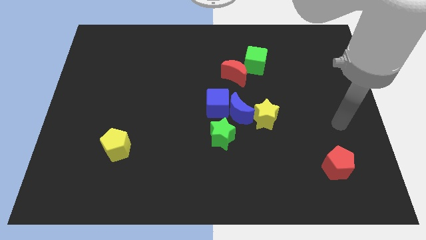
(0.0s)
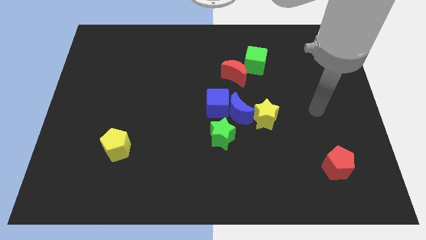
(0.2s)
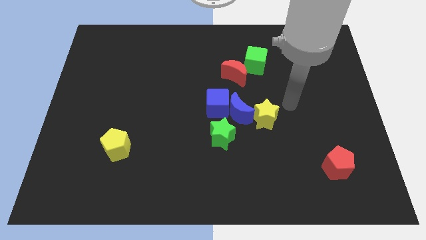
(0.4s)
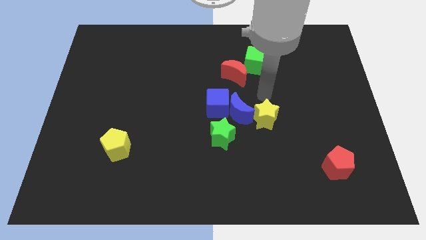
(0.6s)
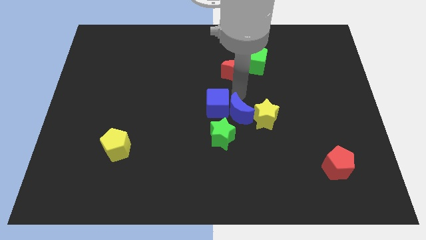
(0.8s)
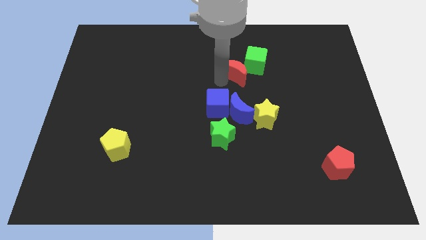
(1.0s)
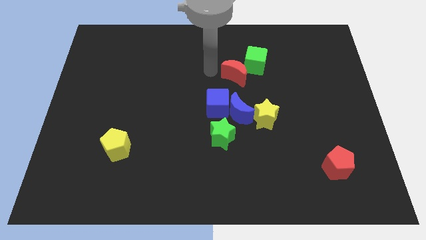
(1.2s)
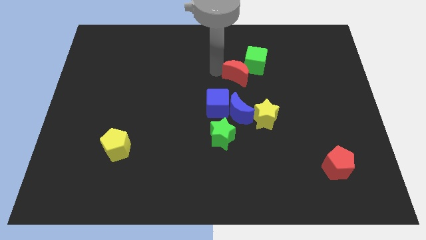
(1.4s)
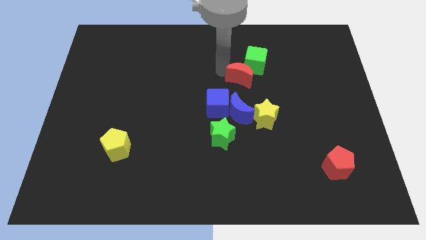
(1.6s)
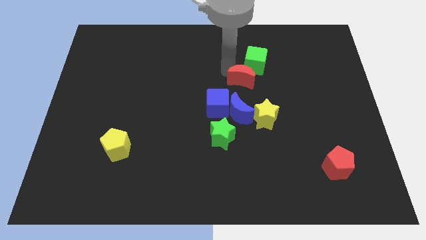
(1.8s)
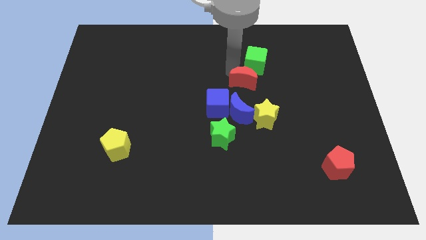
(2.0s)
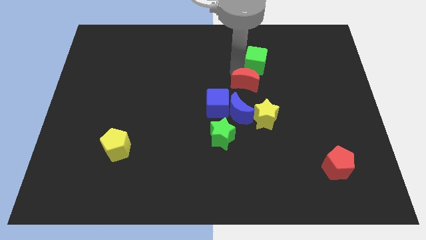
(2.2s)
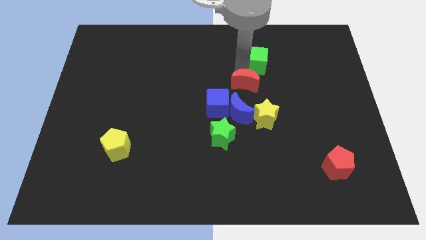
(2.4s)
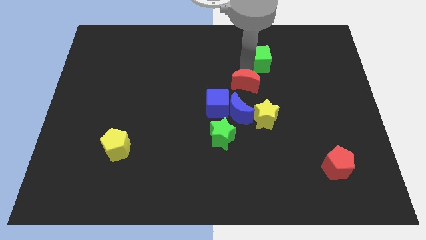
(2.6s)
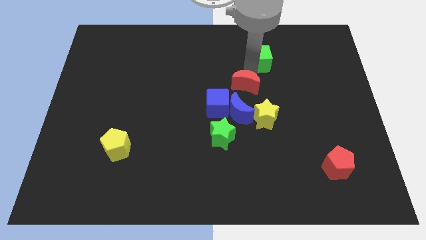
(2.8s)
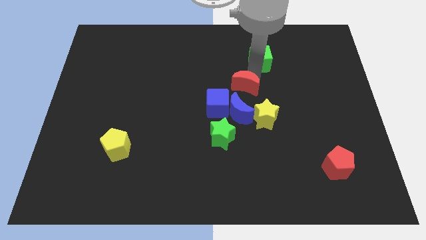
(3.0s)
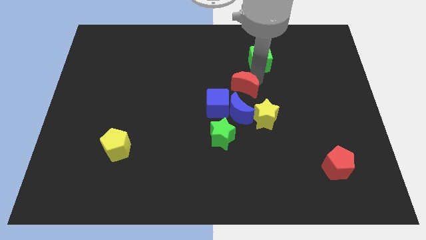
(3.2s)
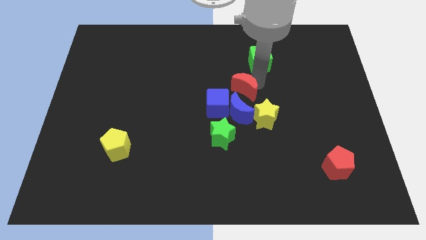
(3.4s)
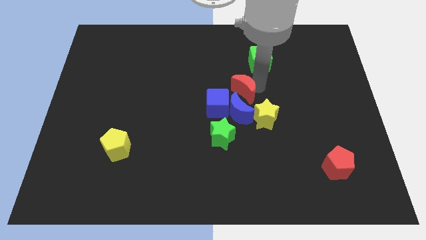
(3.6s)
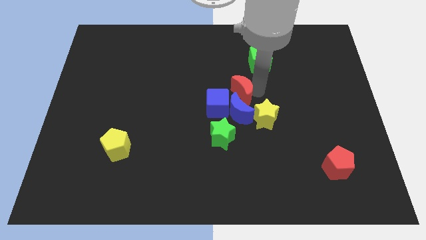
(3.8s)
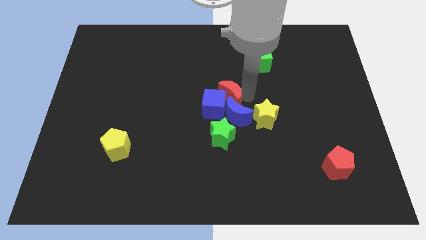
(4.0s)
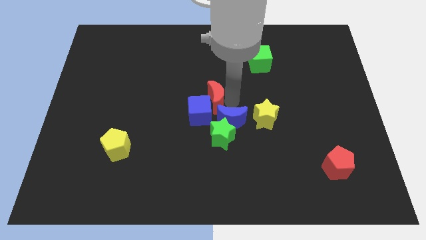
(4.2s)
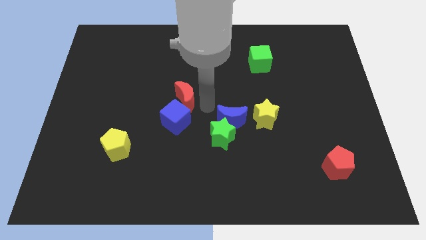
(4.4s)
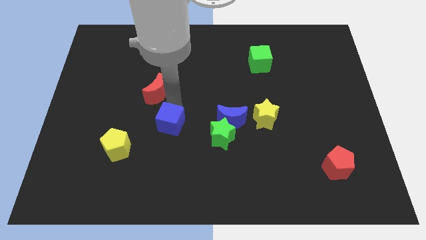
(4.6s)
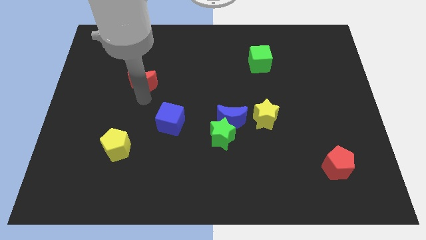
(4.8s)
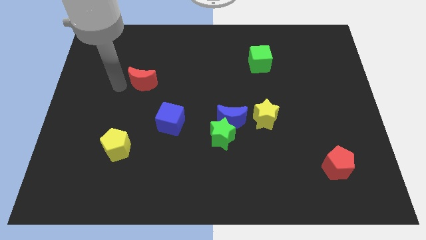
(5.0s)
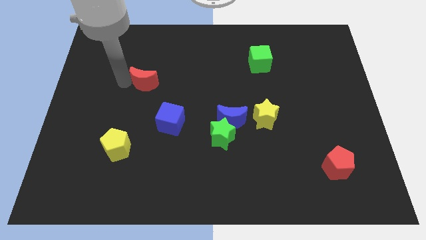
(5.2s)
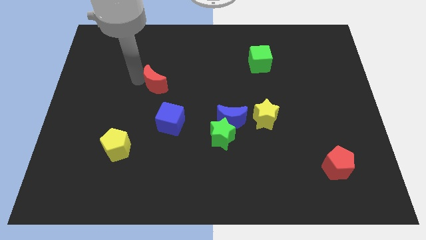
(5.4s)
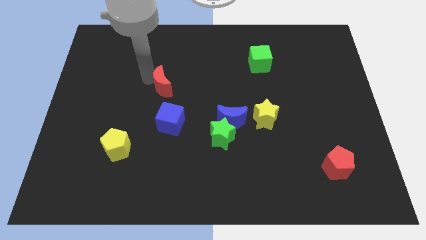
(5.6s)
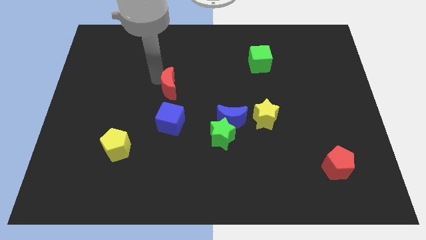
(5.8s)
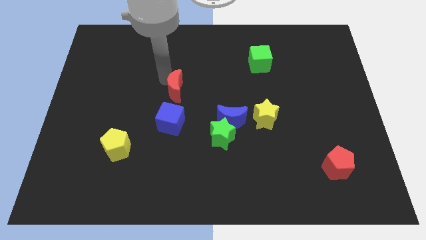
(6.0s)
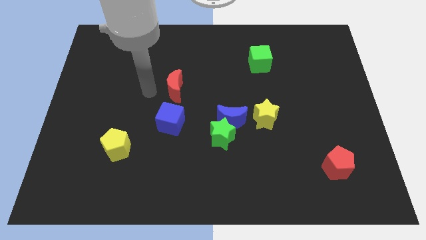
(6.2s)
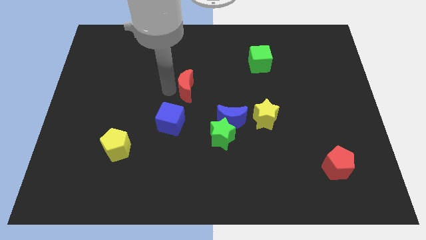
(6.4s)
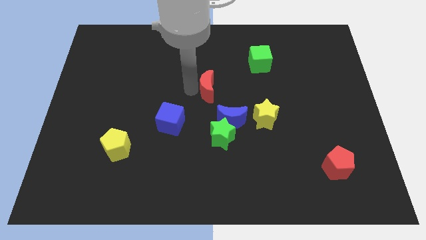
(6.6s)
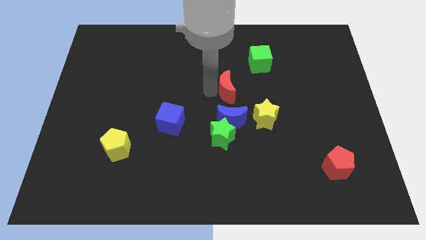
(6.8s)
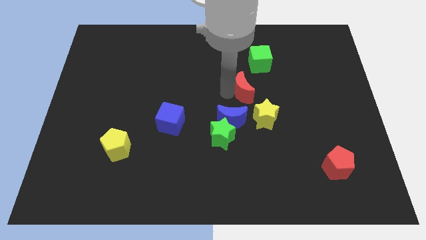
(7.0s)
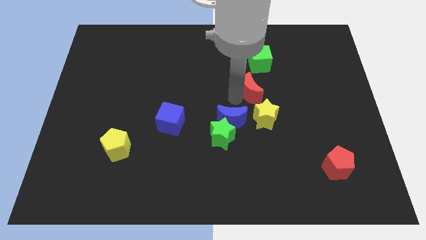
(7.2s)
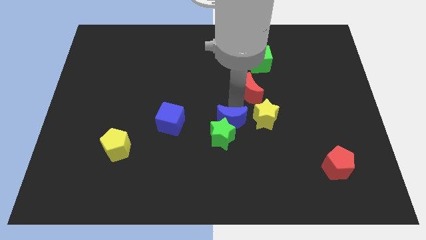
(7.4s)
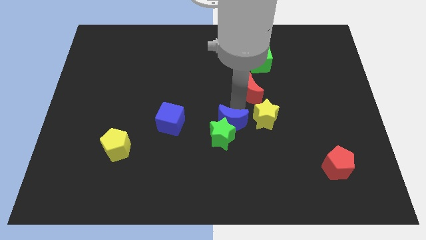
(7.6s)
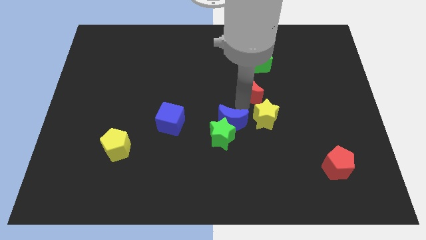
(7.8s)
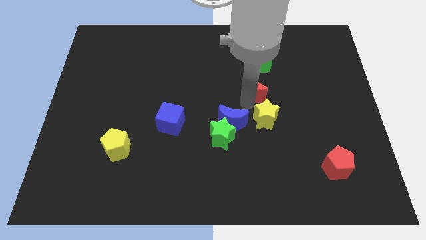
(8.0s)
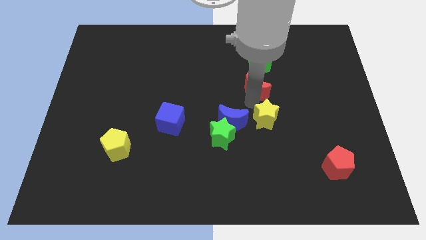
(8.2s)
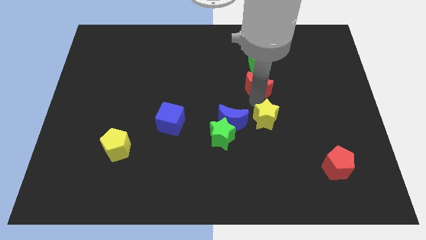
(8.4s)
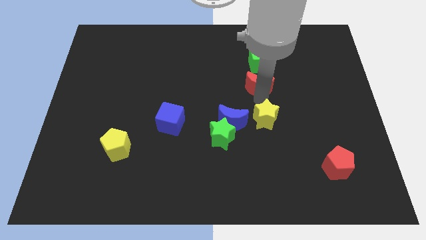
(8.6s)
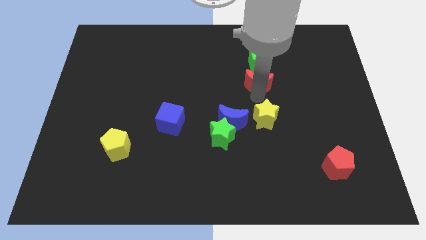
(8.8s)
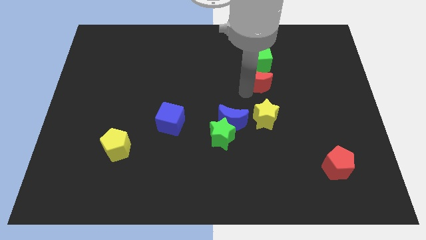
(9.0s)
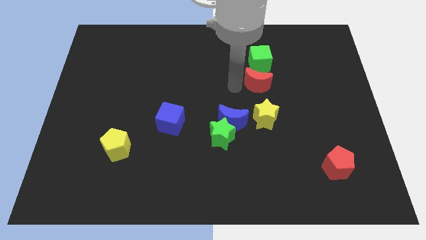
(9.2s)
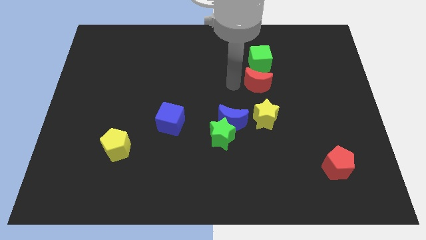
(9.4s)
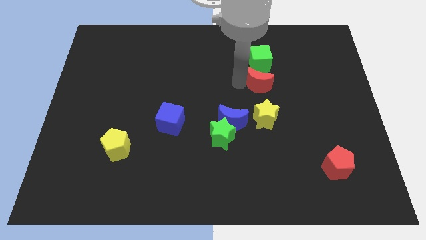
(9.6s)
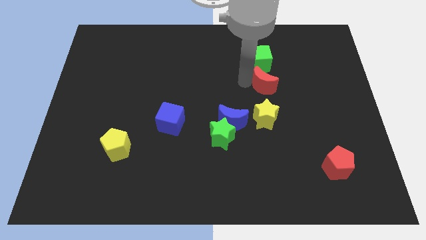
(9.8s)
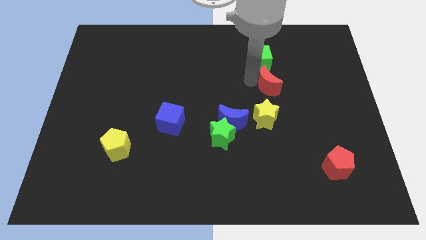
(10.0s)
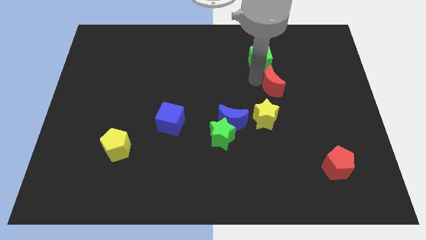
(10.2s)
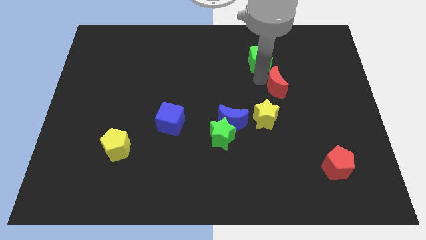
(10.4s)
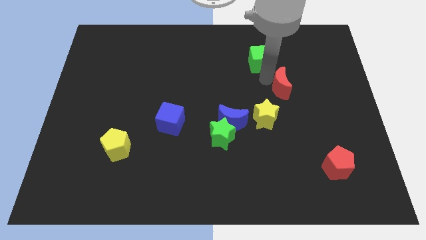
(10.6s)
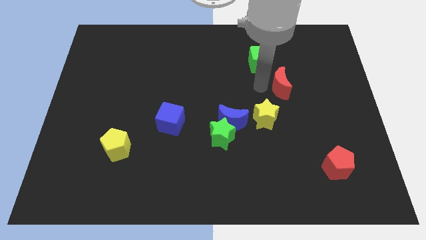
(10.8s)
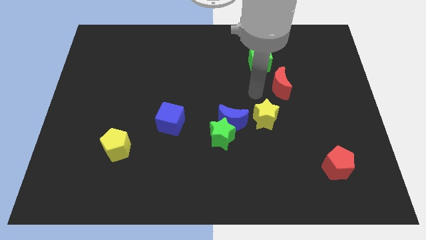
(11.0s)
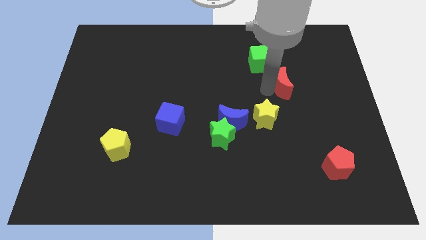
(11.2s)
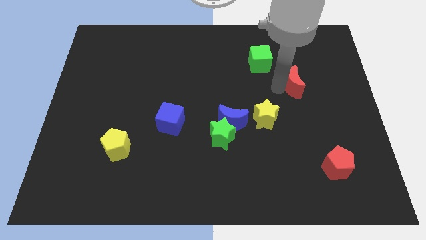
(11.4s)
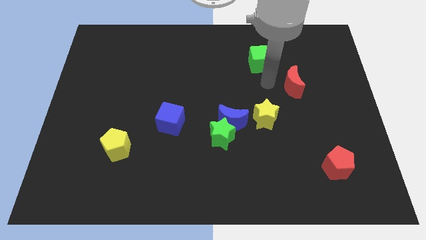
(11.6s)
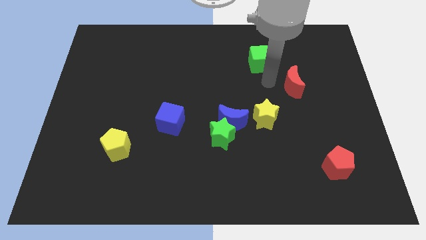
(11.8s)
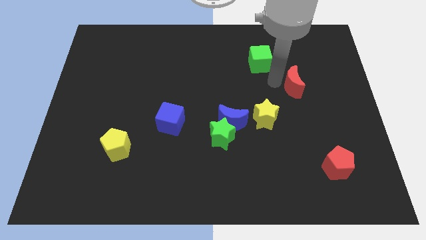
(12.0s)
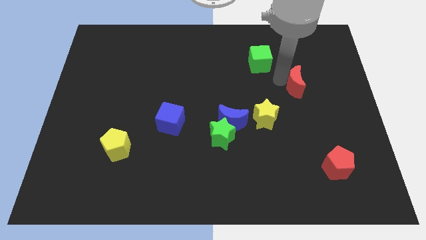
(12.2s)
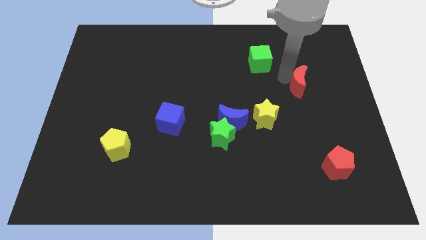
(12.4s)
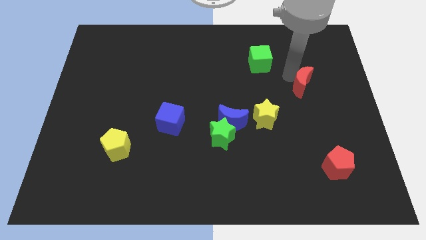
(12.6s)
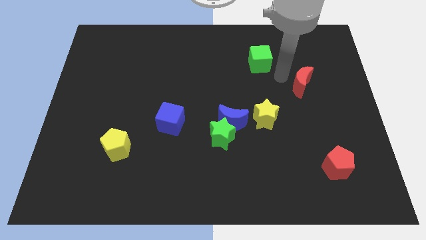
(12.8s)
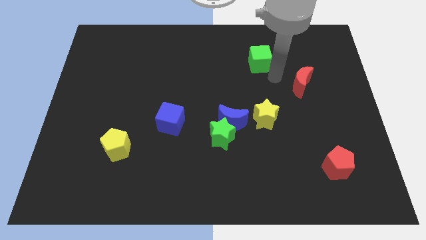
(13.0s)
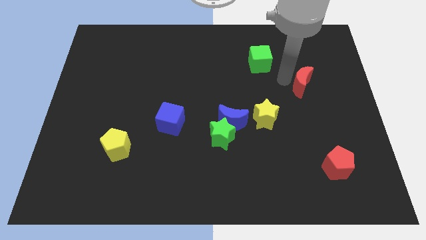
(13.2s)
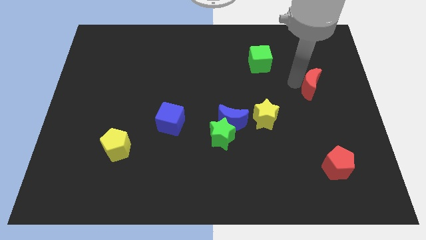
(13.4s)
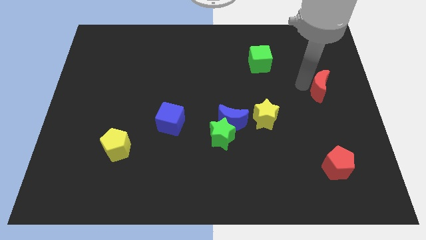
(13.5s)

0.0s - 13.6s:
move the red moon to the right side of the board
